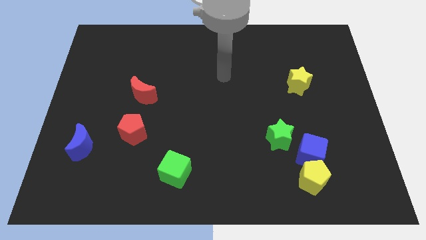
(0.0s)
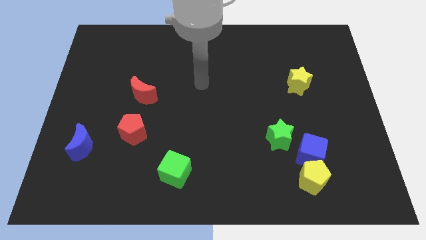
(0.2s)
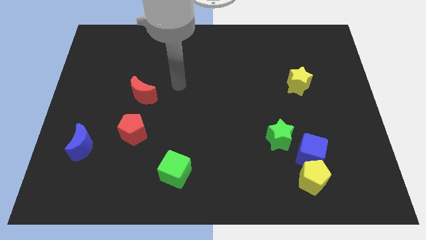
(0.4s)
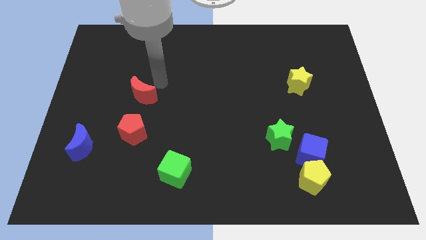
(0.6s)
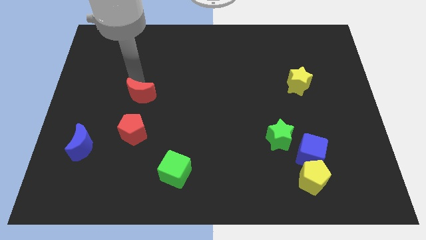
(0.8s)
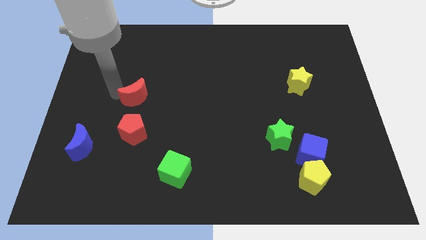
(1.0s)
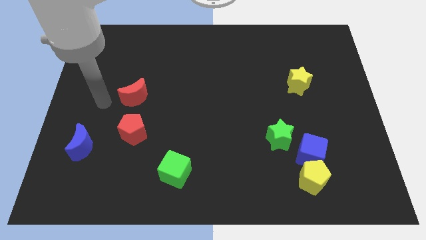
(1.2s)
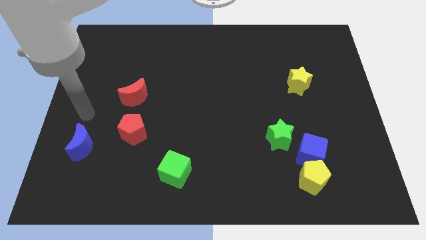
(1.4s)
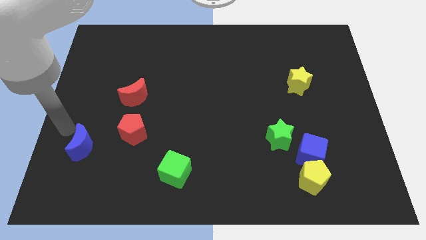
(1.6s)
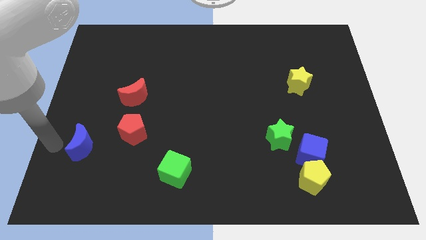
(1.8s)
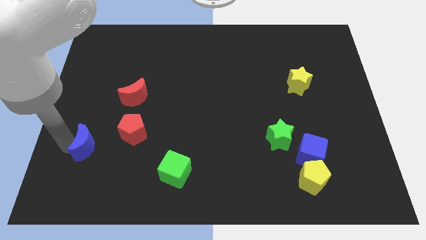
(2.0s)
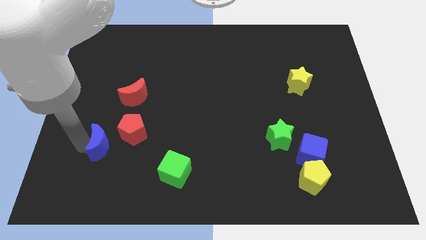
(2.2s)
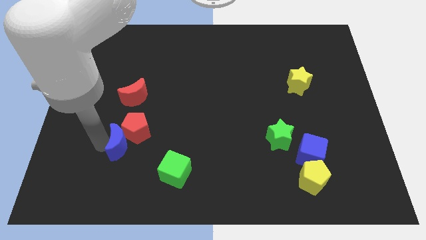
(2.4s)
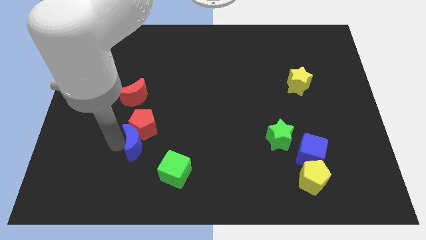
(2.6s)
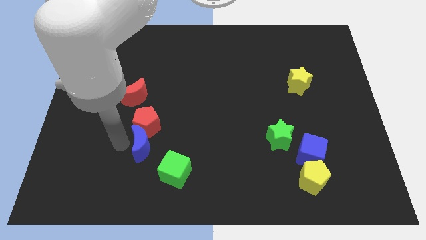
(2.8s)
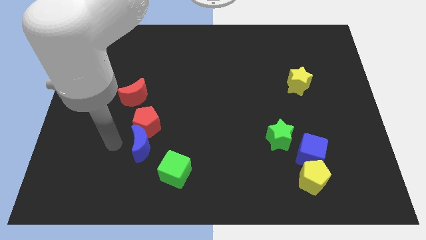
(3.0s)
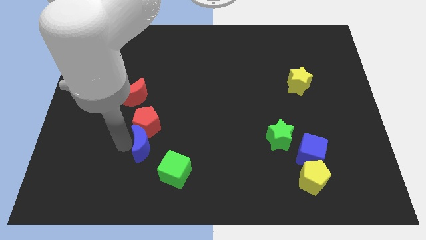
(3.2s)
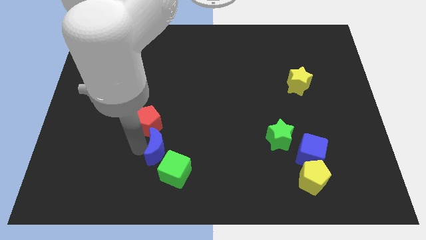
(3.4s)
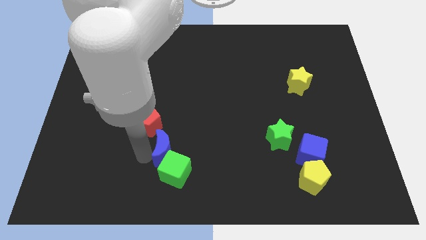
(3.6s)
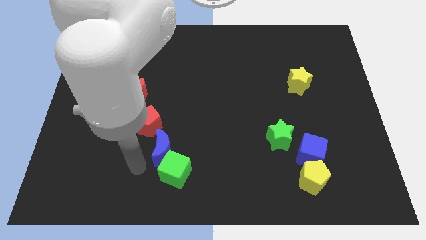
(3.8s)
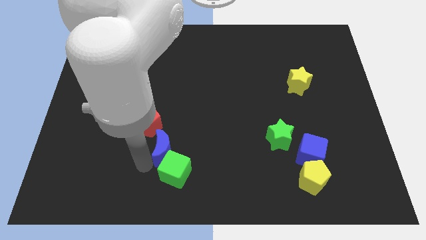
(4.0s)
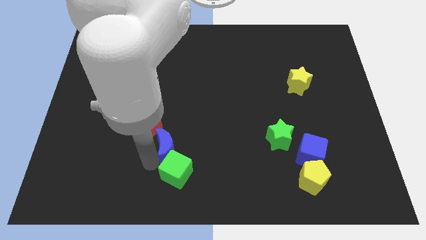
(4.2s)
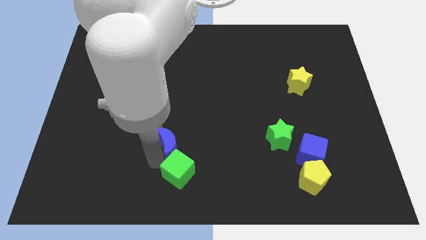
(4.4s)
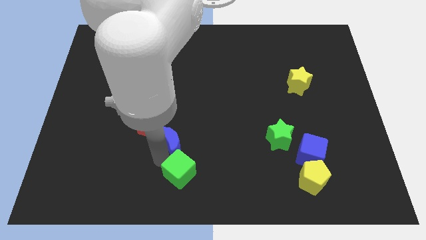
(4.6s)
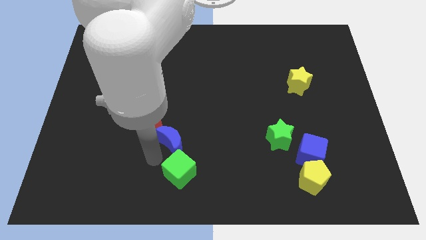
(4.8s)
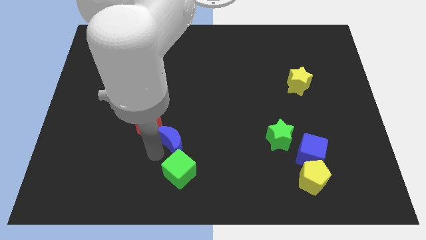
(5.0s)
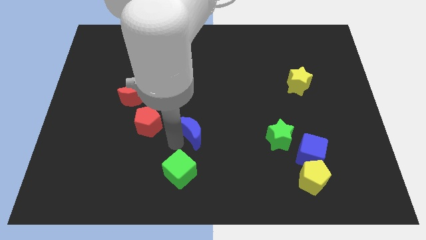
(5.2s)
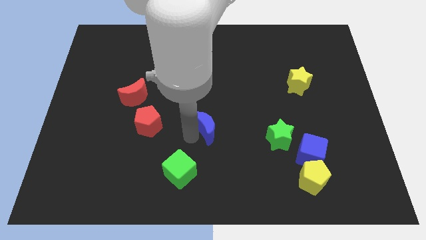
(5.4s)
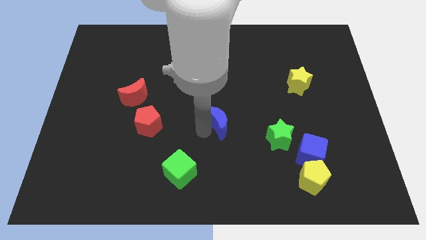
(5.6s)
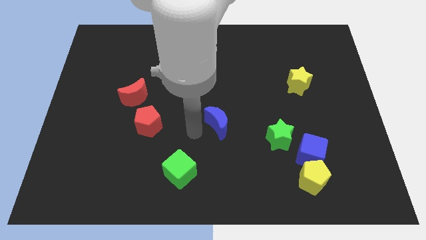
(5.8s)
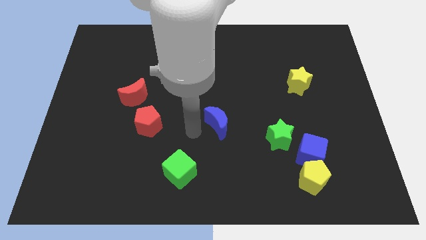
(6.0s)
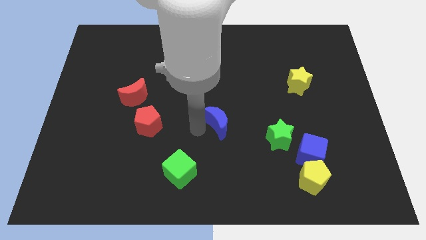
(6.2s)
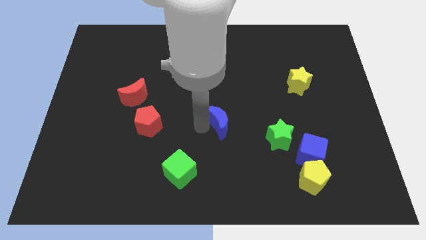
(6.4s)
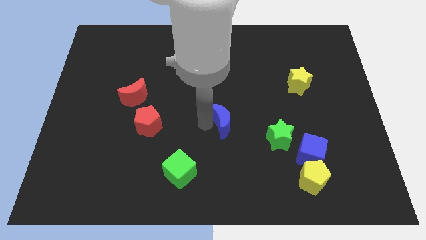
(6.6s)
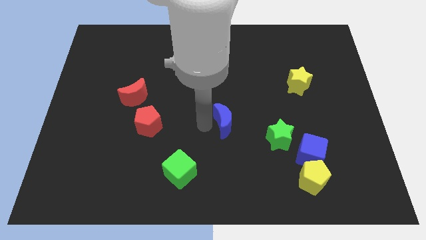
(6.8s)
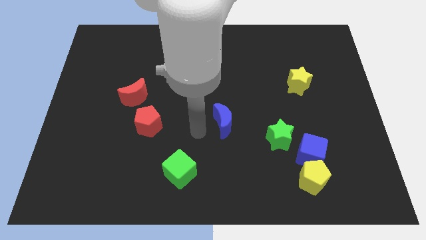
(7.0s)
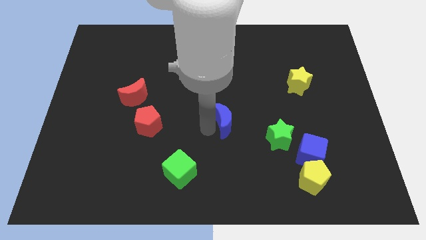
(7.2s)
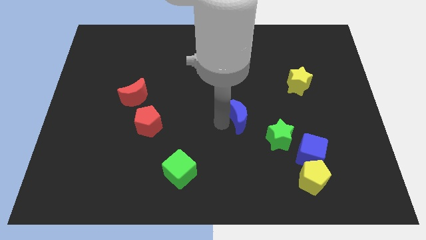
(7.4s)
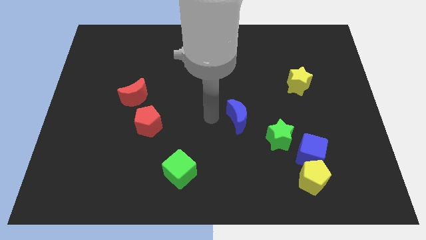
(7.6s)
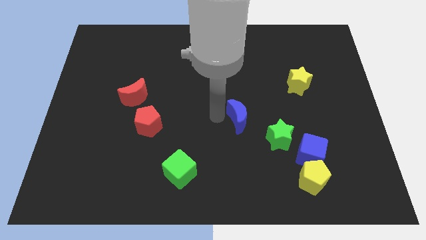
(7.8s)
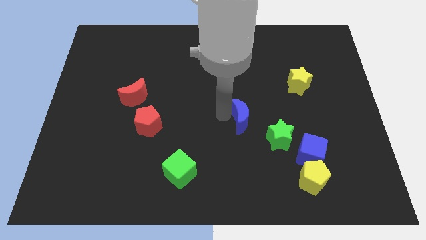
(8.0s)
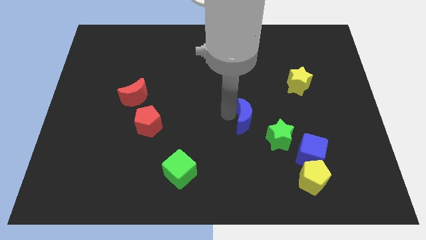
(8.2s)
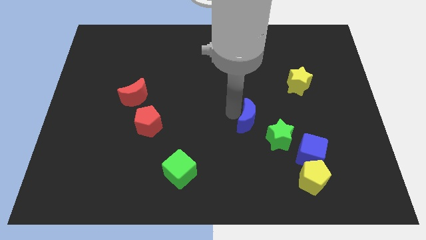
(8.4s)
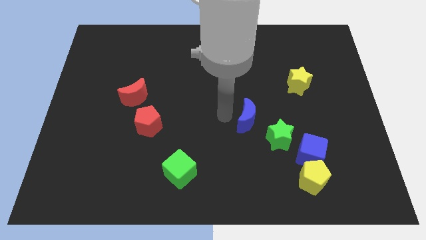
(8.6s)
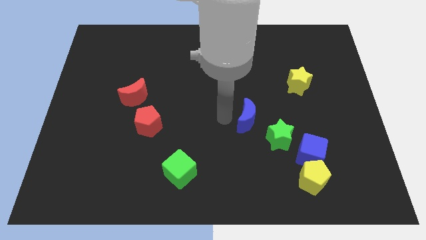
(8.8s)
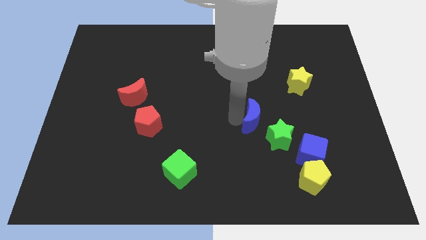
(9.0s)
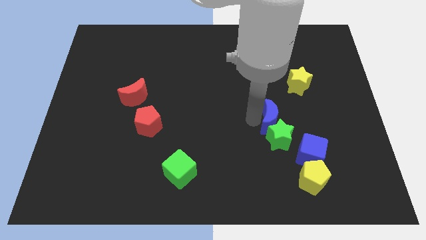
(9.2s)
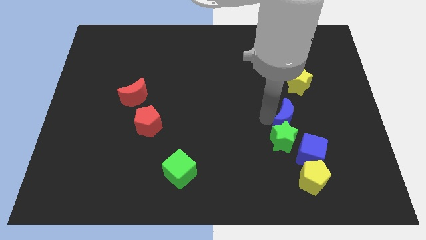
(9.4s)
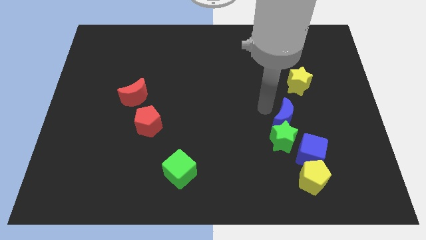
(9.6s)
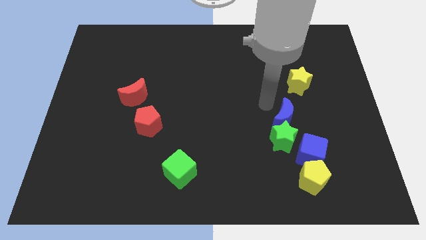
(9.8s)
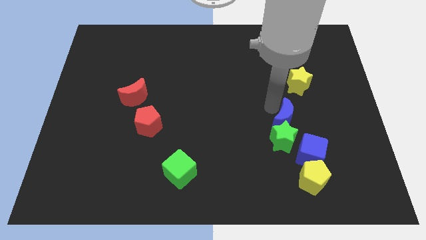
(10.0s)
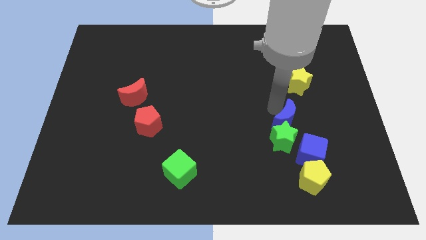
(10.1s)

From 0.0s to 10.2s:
put the blue moon above the yellow pentagon

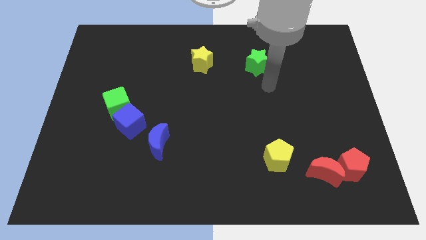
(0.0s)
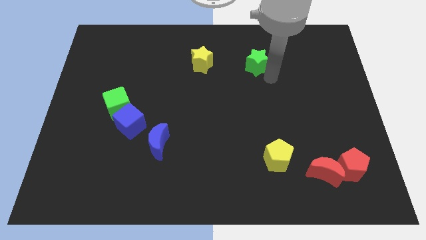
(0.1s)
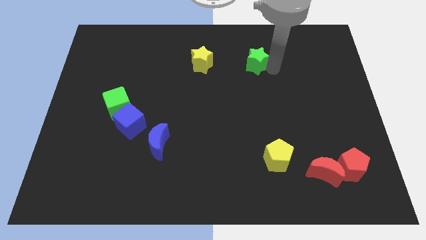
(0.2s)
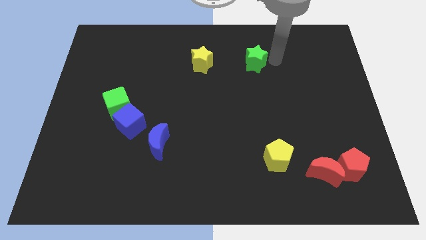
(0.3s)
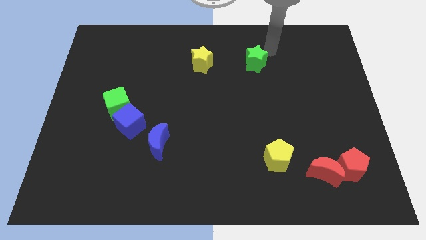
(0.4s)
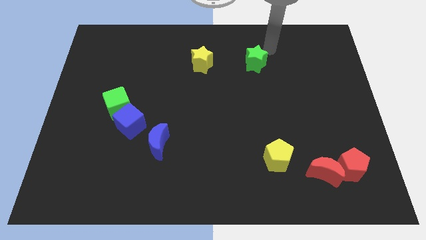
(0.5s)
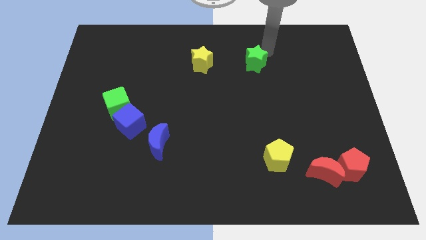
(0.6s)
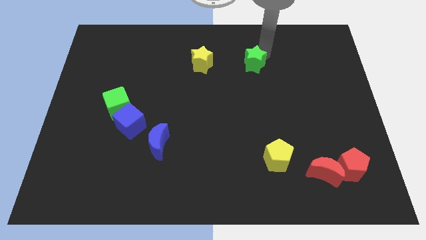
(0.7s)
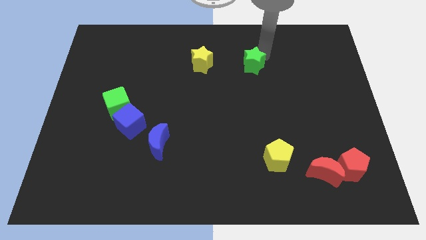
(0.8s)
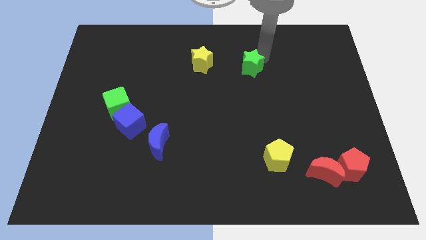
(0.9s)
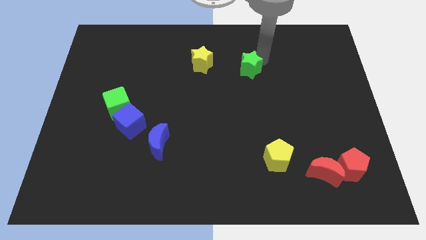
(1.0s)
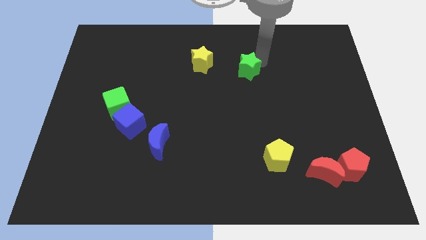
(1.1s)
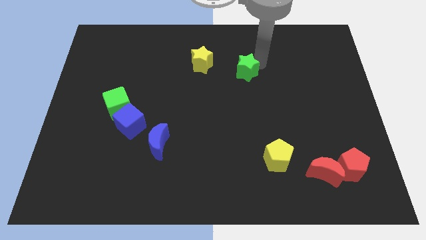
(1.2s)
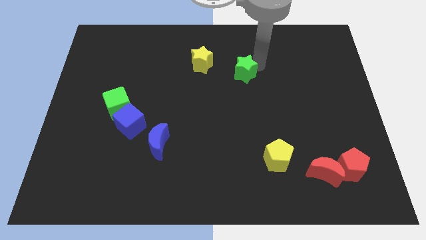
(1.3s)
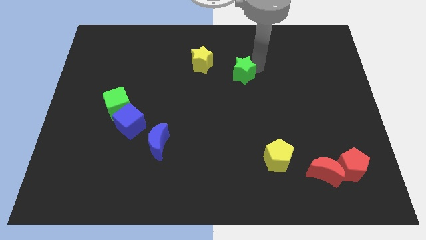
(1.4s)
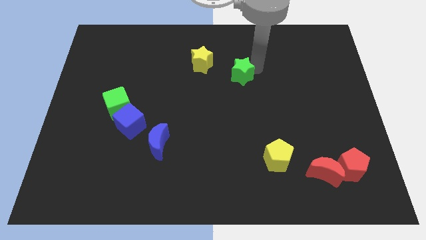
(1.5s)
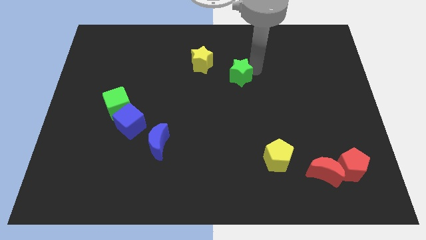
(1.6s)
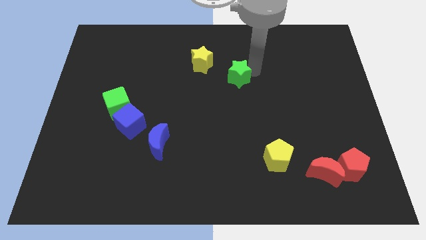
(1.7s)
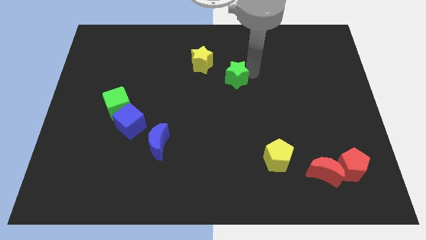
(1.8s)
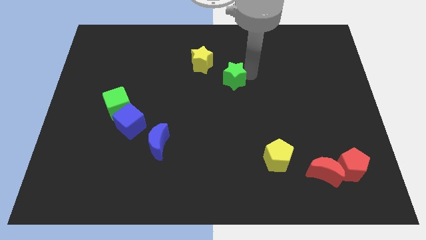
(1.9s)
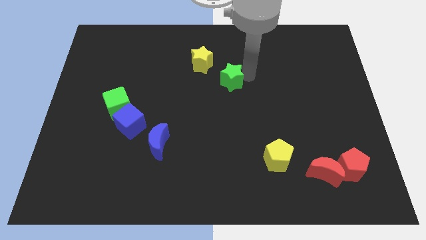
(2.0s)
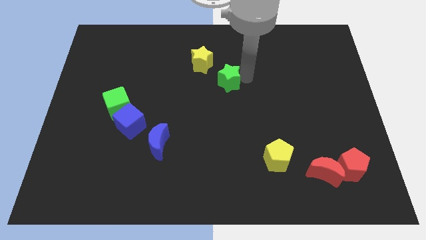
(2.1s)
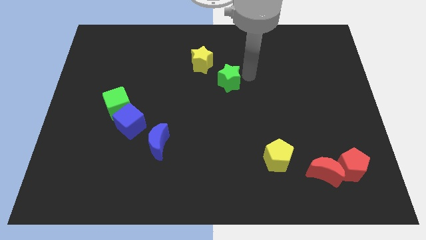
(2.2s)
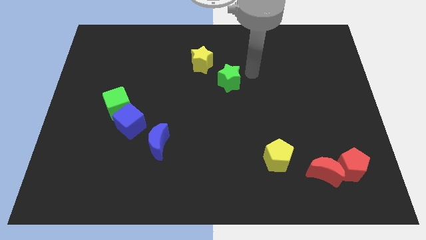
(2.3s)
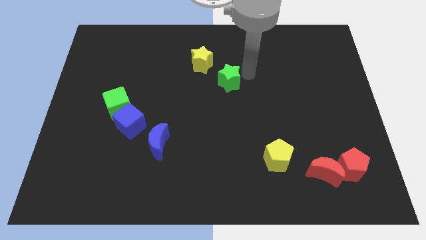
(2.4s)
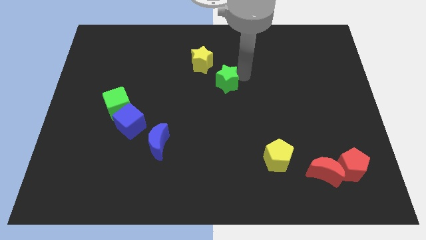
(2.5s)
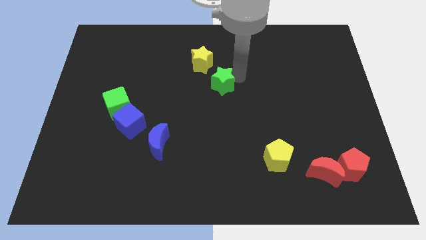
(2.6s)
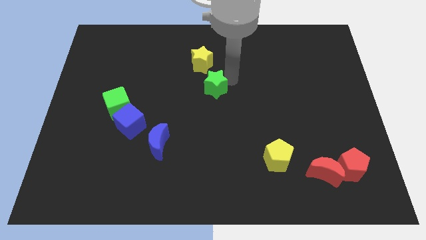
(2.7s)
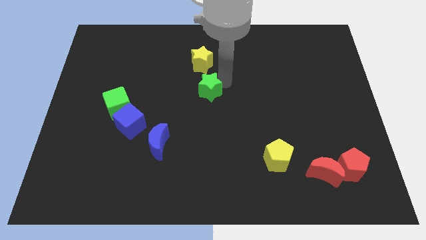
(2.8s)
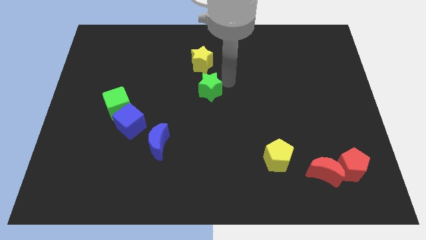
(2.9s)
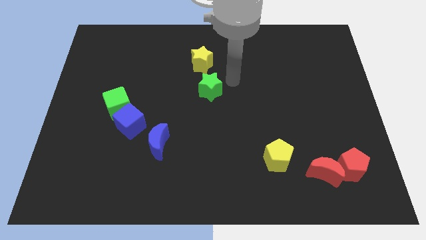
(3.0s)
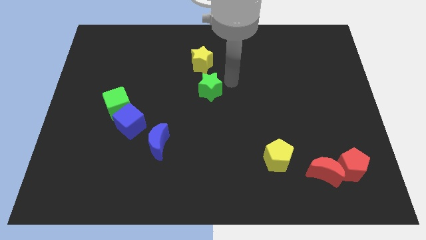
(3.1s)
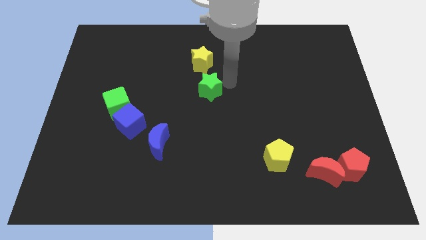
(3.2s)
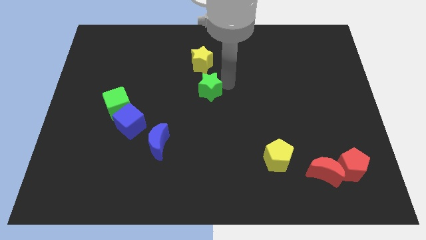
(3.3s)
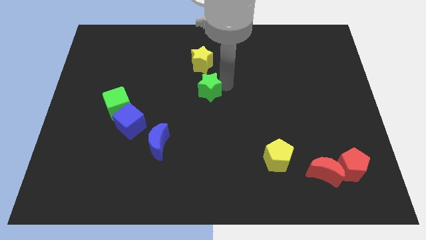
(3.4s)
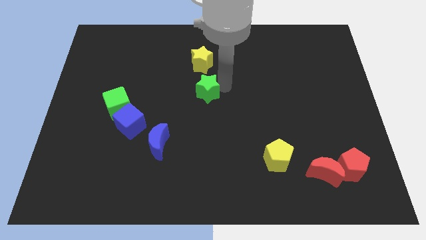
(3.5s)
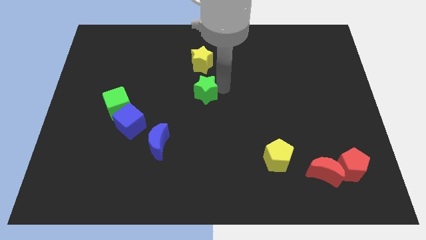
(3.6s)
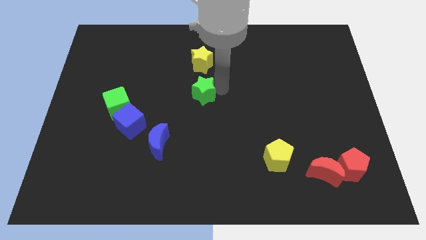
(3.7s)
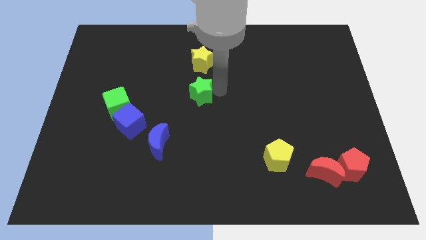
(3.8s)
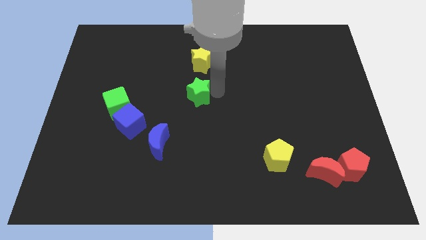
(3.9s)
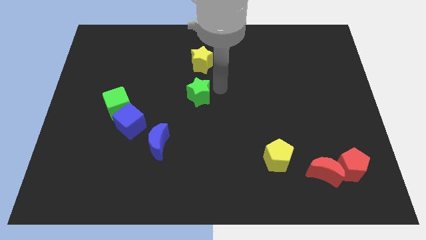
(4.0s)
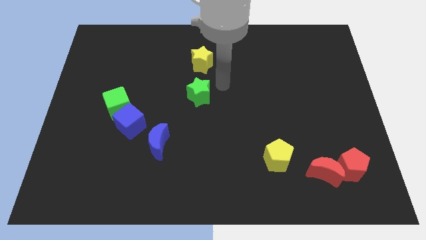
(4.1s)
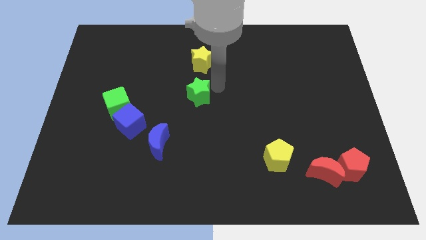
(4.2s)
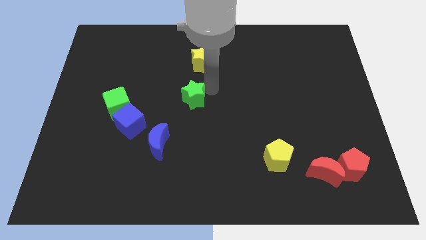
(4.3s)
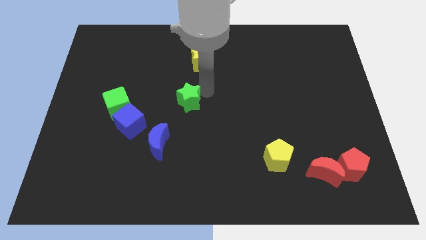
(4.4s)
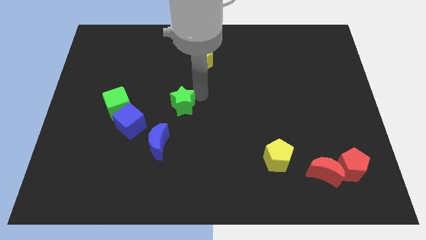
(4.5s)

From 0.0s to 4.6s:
slide the green star to the top of the blue moon
